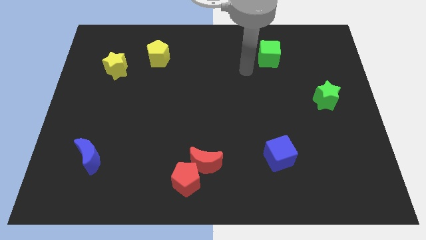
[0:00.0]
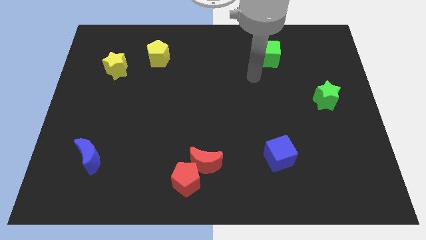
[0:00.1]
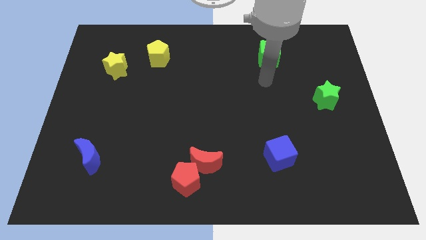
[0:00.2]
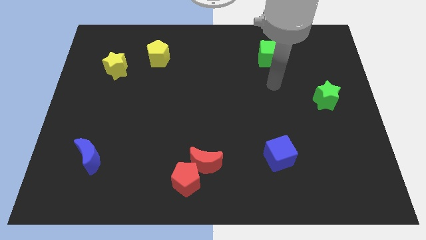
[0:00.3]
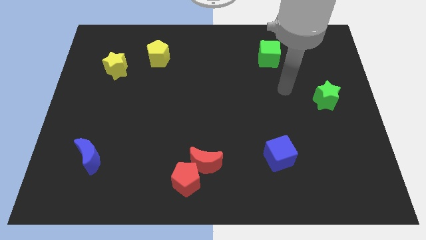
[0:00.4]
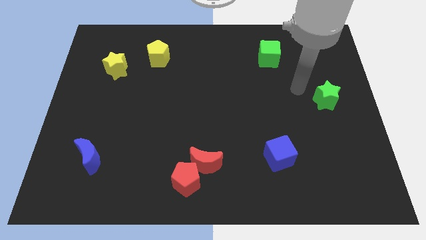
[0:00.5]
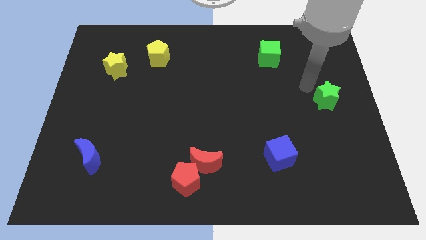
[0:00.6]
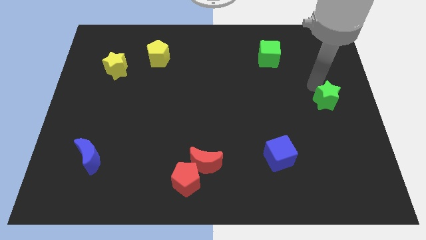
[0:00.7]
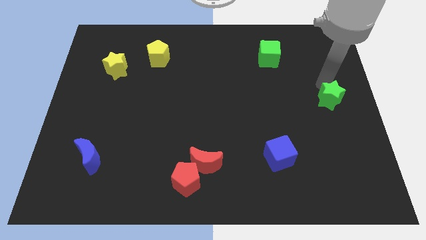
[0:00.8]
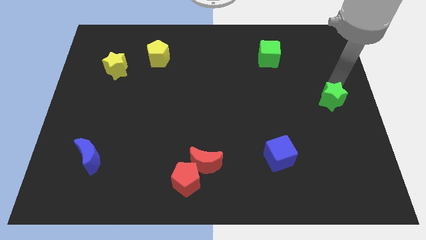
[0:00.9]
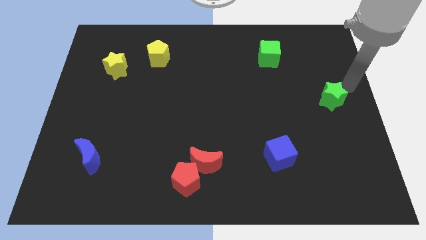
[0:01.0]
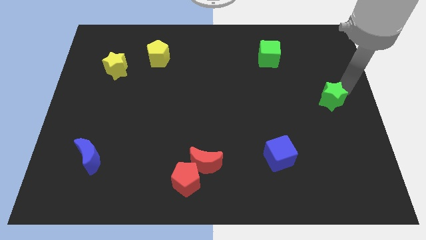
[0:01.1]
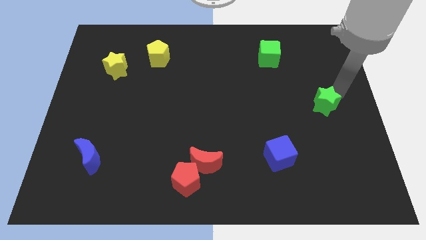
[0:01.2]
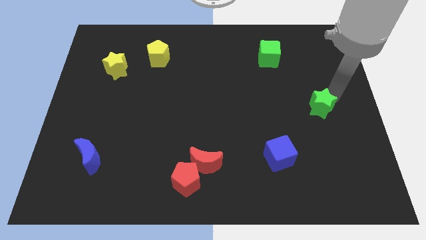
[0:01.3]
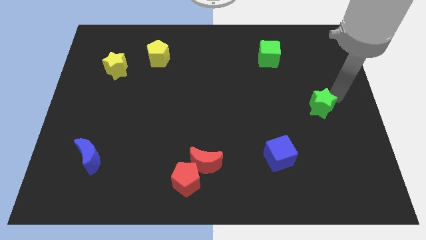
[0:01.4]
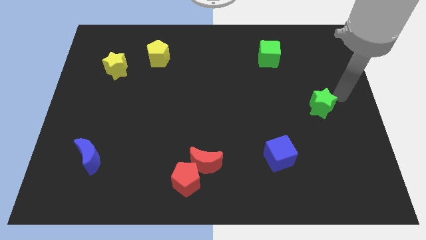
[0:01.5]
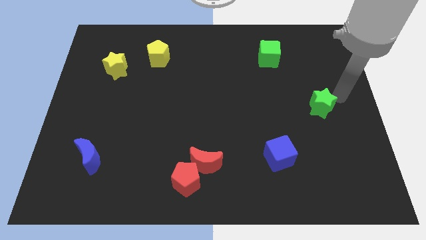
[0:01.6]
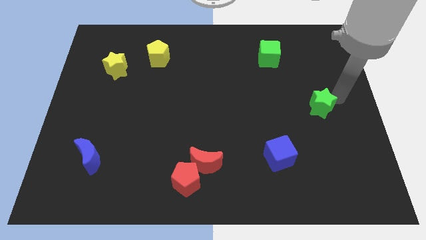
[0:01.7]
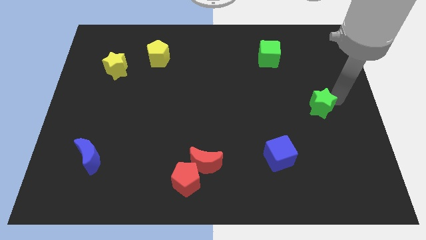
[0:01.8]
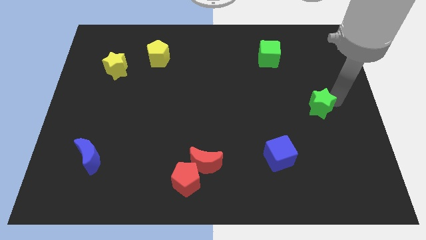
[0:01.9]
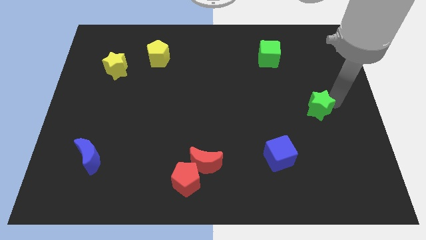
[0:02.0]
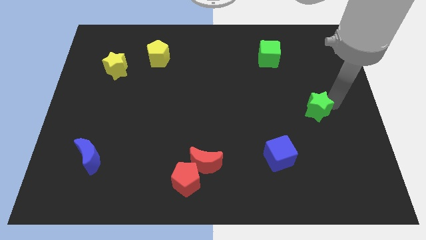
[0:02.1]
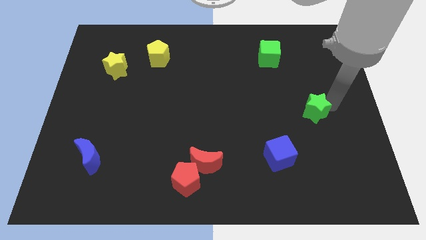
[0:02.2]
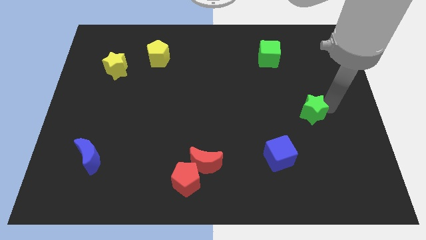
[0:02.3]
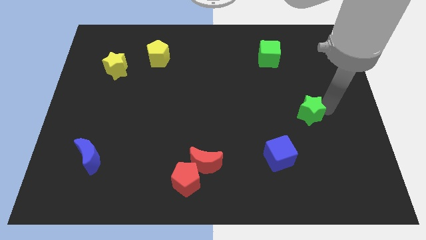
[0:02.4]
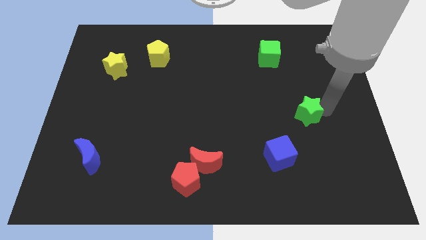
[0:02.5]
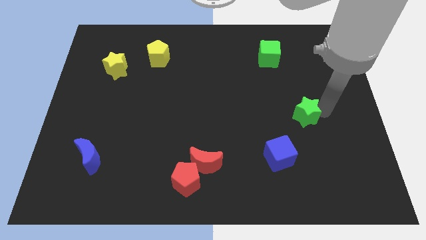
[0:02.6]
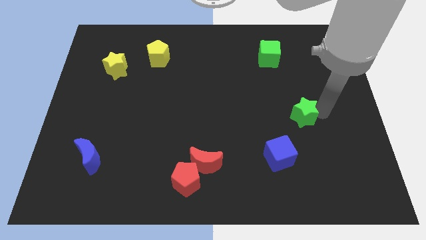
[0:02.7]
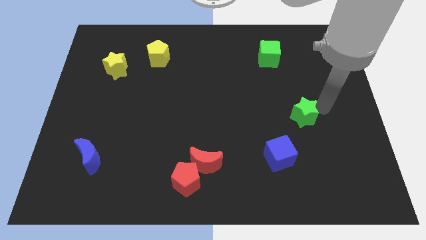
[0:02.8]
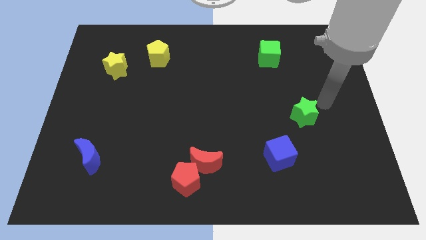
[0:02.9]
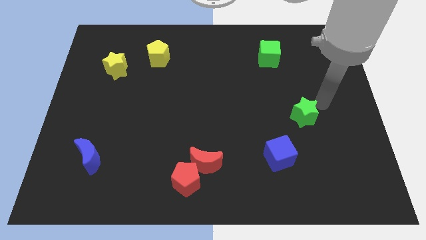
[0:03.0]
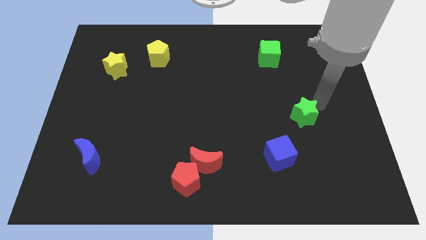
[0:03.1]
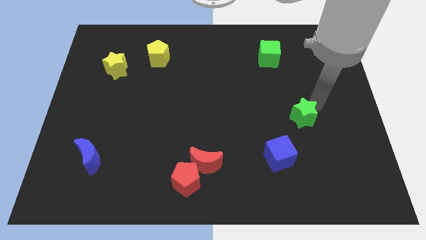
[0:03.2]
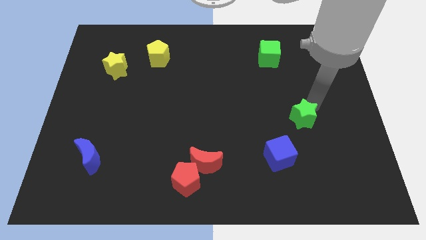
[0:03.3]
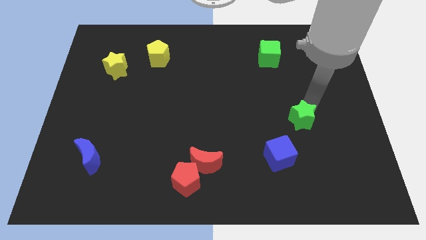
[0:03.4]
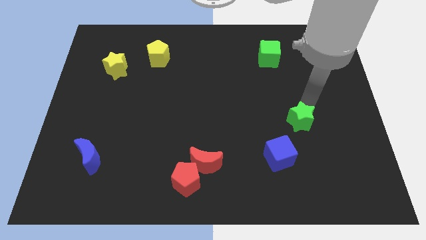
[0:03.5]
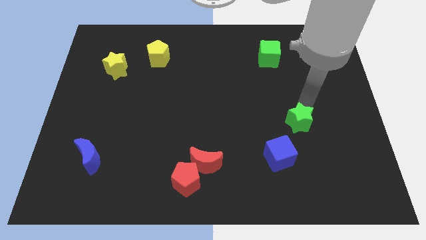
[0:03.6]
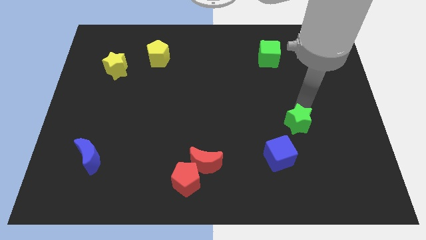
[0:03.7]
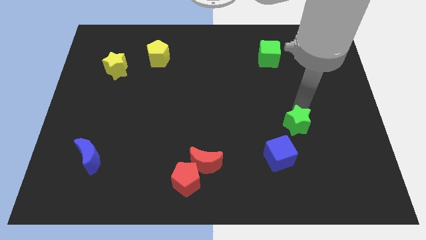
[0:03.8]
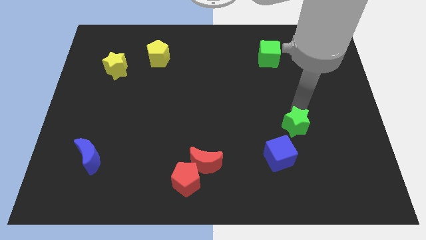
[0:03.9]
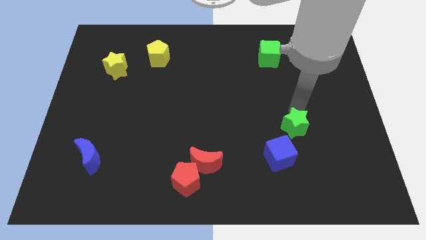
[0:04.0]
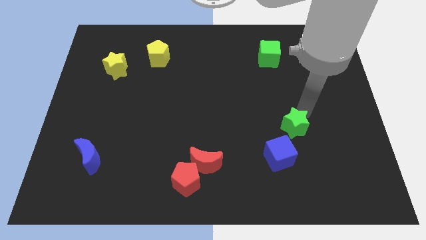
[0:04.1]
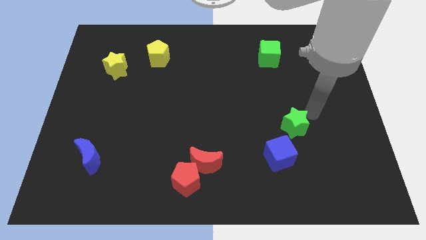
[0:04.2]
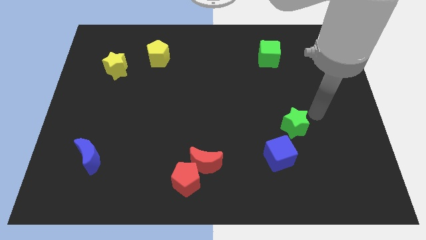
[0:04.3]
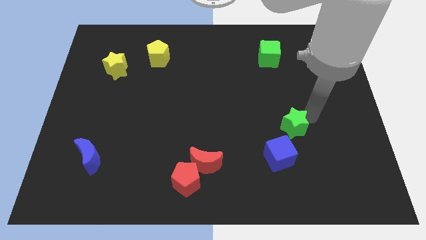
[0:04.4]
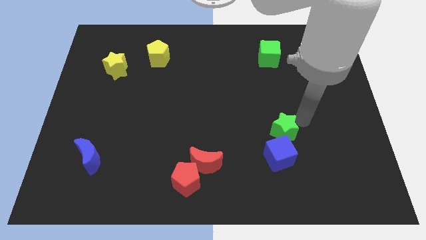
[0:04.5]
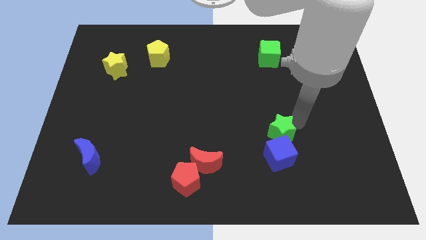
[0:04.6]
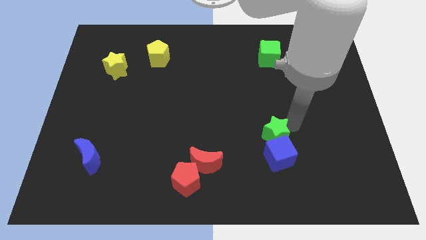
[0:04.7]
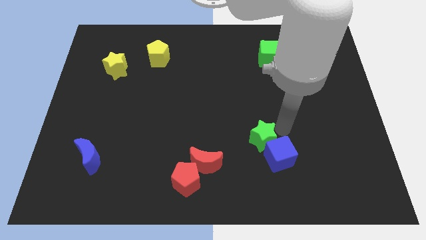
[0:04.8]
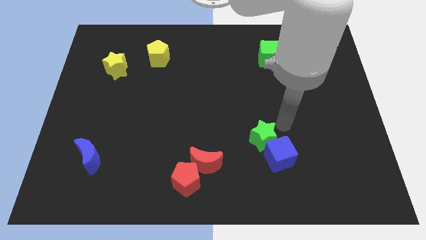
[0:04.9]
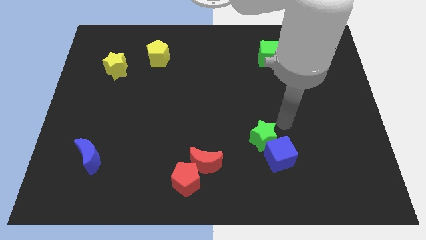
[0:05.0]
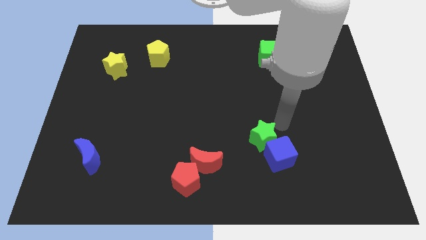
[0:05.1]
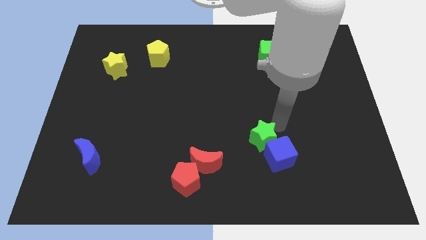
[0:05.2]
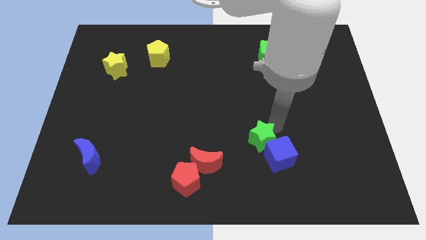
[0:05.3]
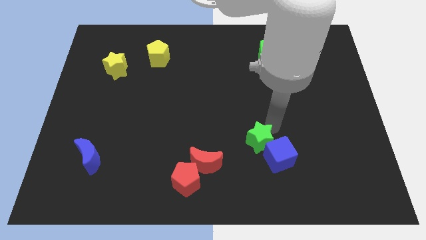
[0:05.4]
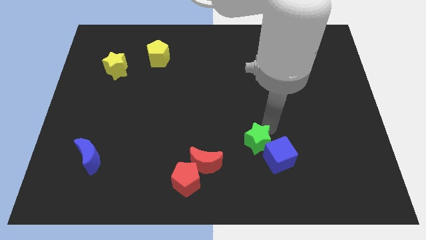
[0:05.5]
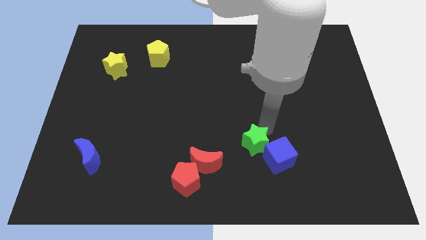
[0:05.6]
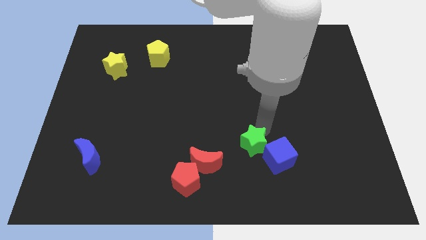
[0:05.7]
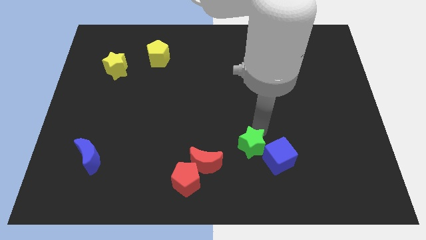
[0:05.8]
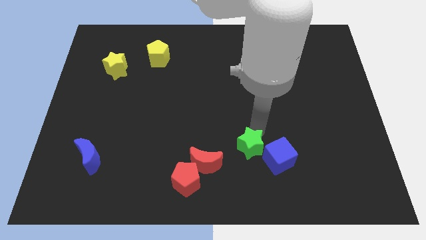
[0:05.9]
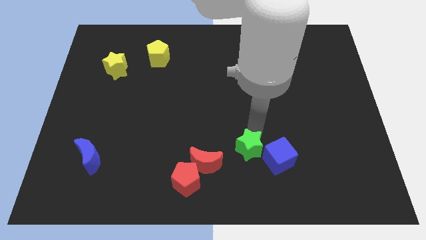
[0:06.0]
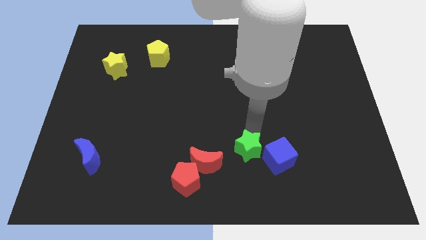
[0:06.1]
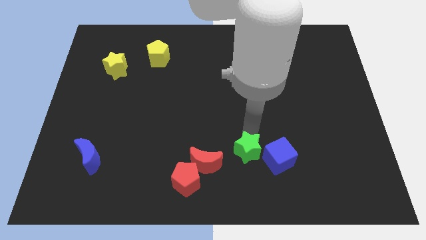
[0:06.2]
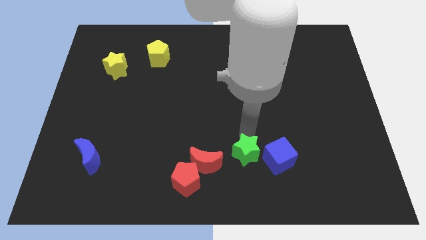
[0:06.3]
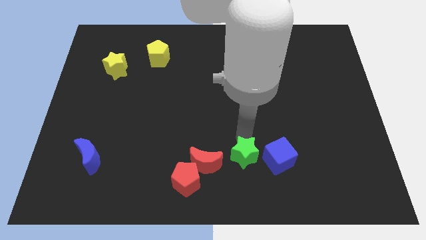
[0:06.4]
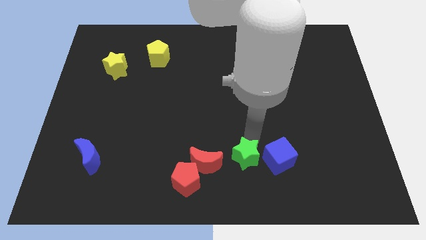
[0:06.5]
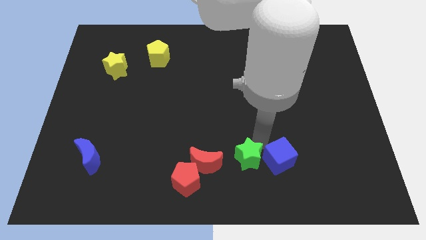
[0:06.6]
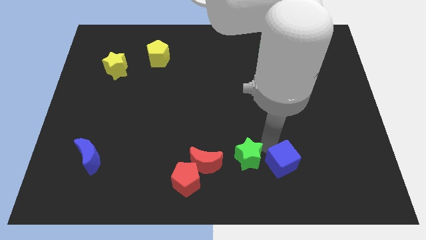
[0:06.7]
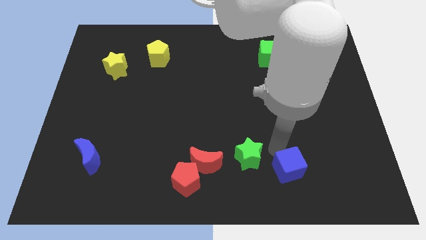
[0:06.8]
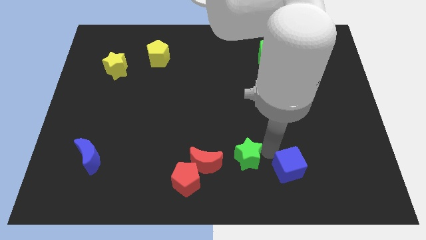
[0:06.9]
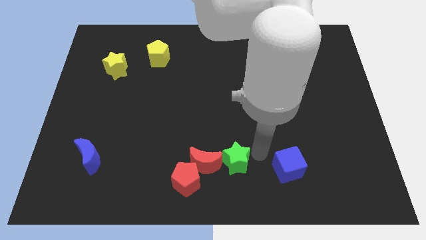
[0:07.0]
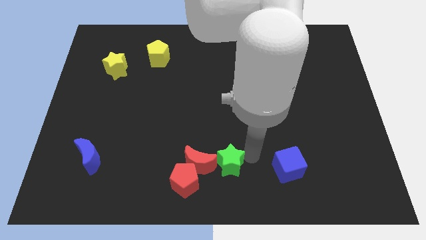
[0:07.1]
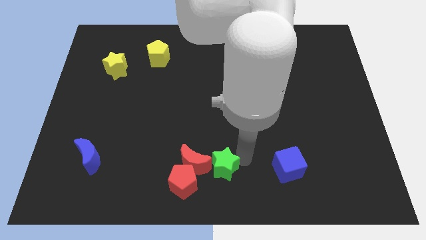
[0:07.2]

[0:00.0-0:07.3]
slide the green star to the red moon
